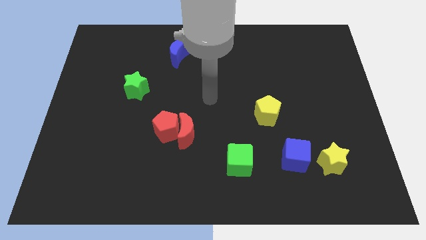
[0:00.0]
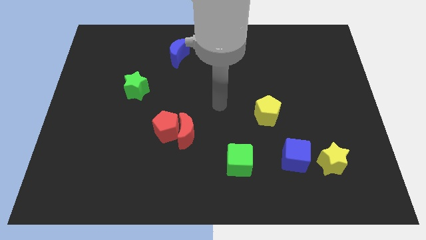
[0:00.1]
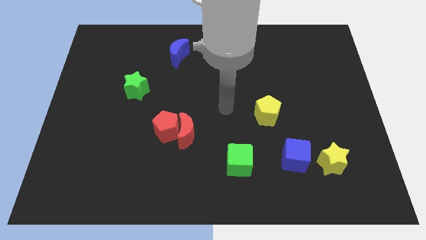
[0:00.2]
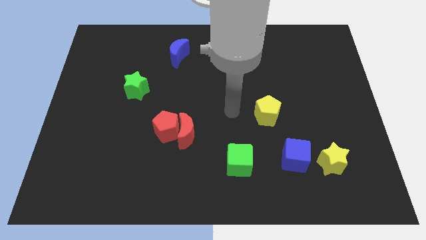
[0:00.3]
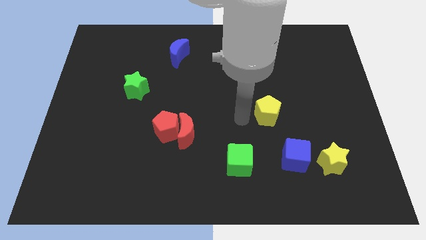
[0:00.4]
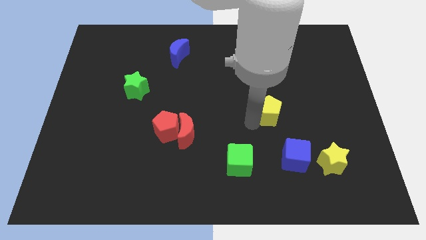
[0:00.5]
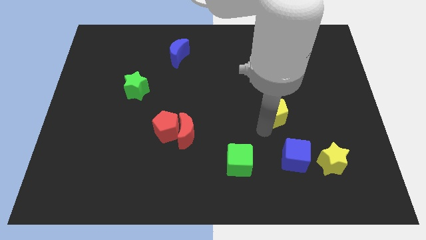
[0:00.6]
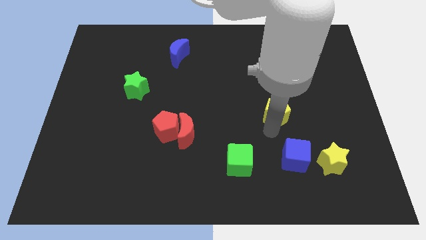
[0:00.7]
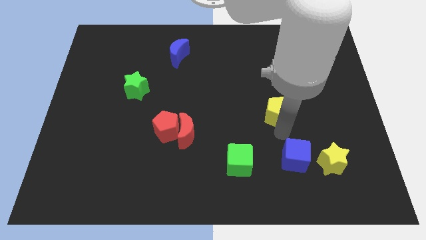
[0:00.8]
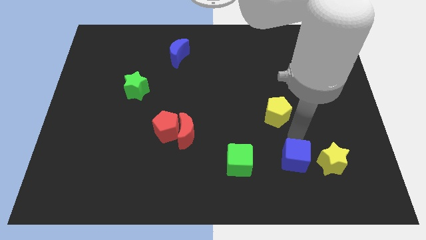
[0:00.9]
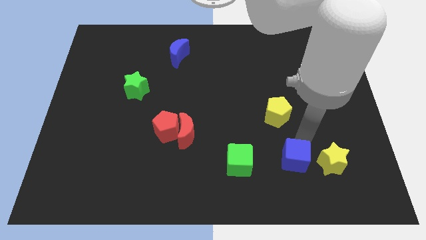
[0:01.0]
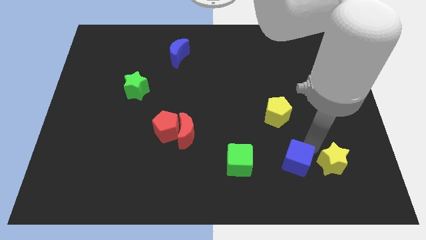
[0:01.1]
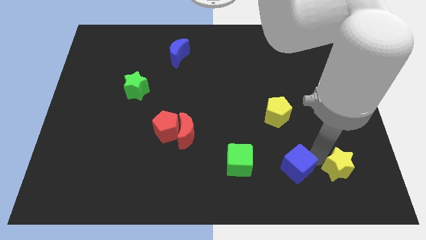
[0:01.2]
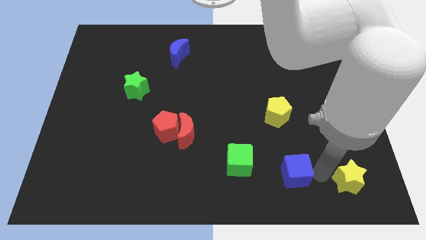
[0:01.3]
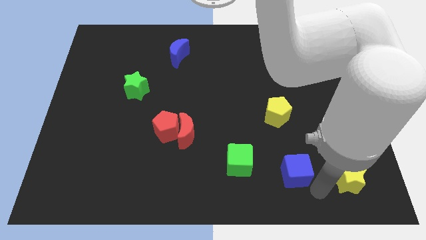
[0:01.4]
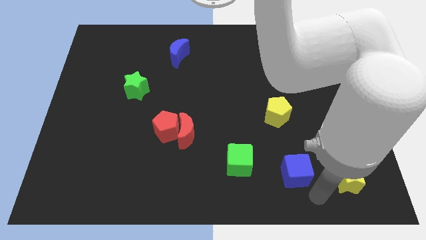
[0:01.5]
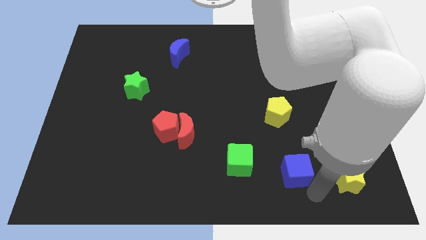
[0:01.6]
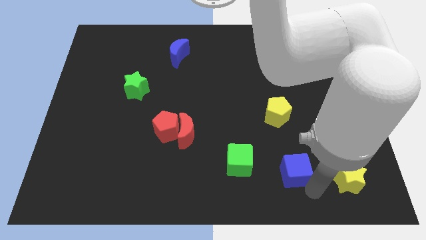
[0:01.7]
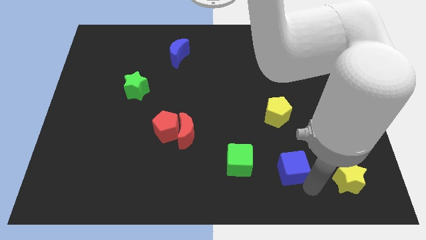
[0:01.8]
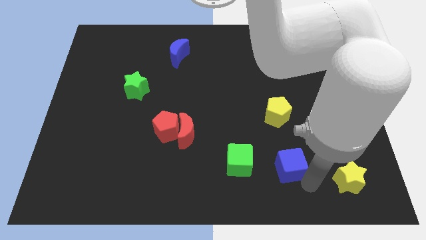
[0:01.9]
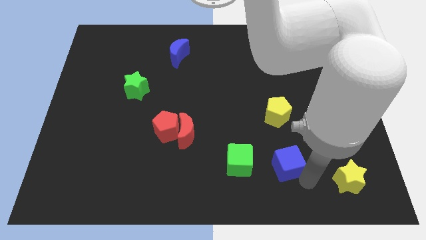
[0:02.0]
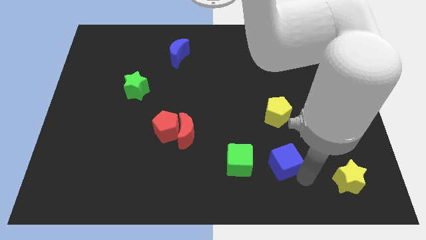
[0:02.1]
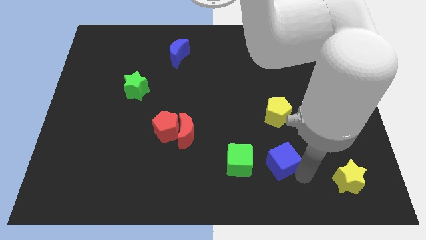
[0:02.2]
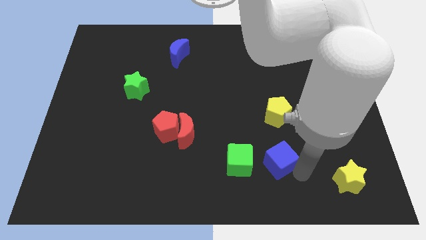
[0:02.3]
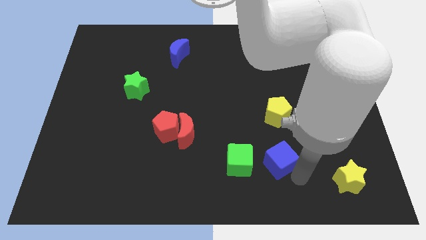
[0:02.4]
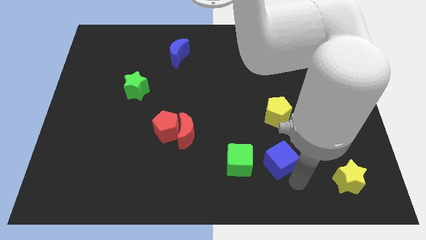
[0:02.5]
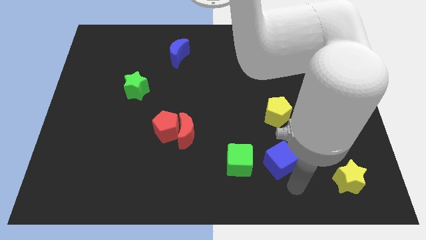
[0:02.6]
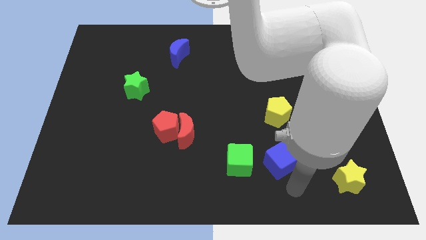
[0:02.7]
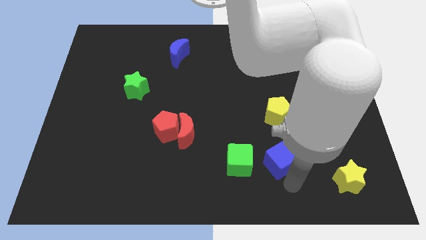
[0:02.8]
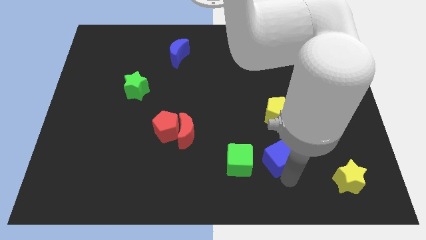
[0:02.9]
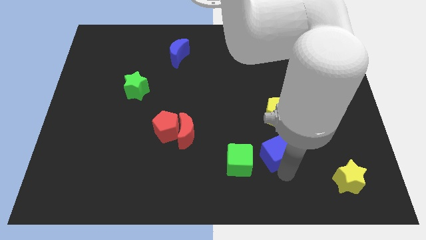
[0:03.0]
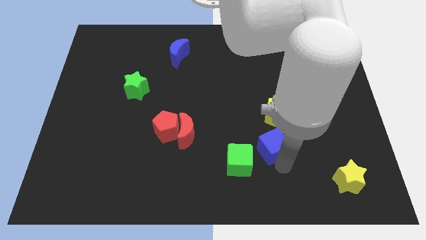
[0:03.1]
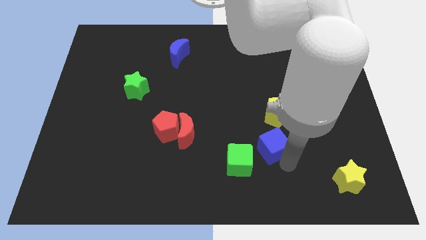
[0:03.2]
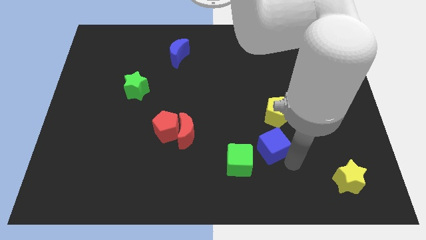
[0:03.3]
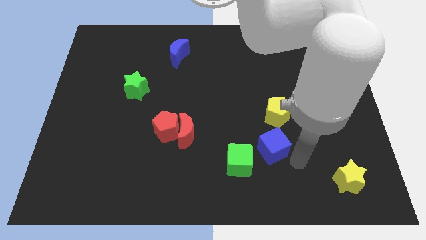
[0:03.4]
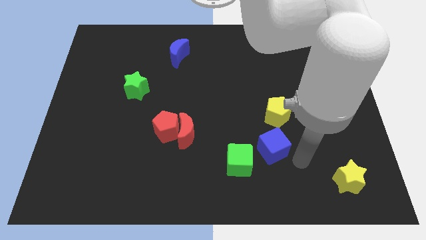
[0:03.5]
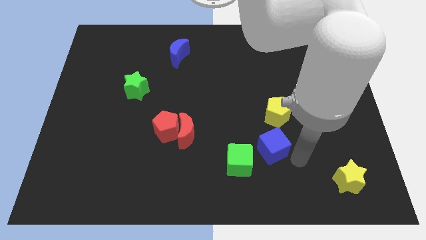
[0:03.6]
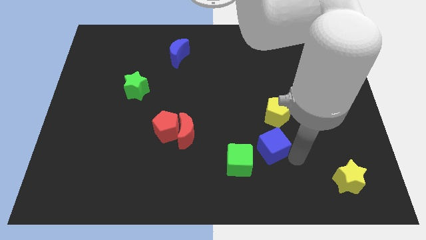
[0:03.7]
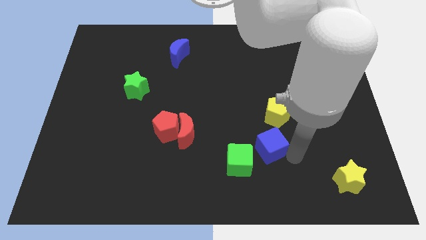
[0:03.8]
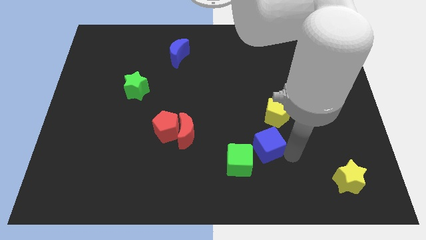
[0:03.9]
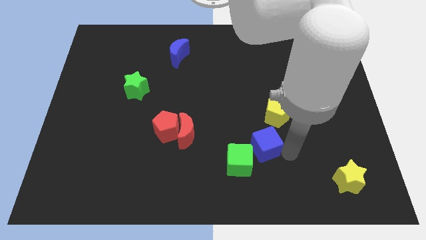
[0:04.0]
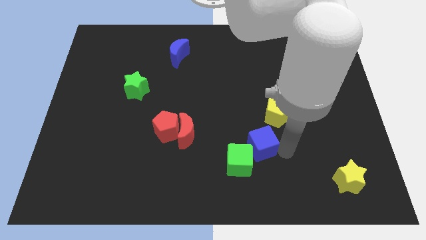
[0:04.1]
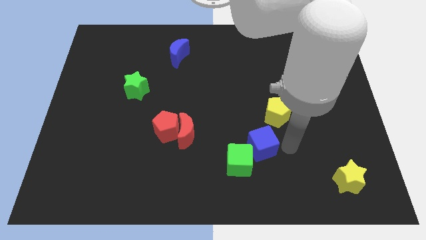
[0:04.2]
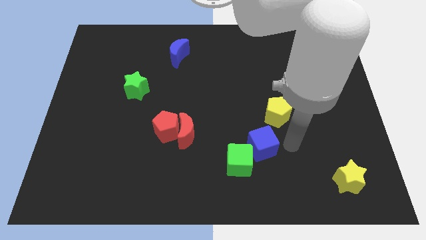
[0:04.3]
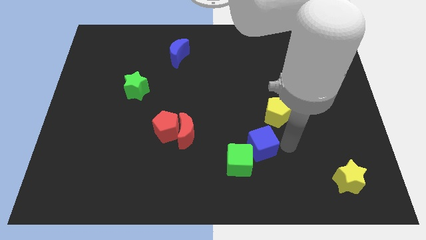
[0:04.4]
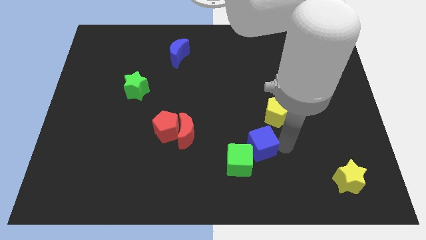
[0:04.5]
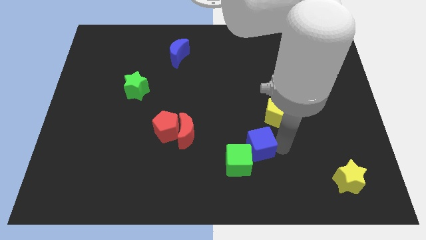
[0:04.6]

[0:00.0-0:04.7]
move the blue cube a little bit to the left

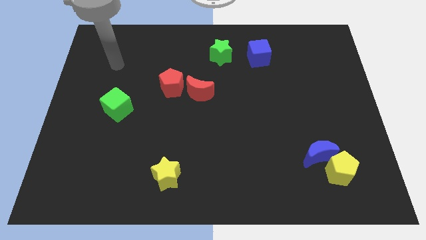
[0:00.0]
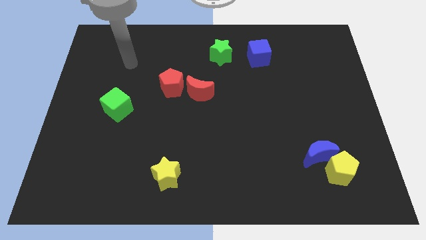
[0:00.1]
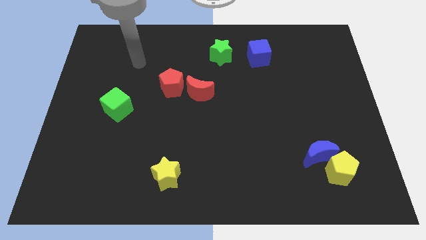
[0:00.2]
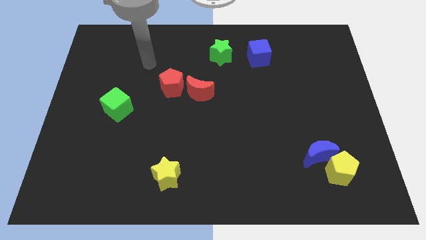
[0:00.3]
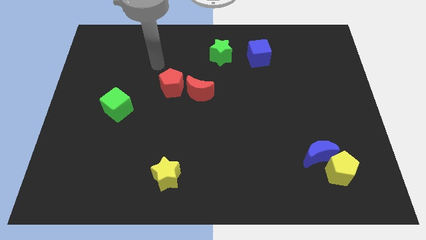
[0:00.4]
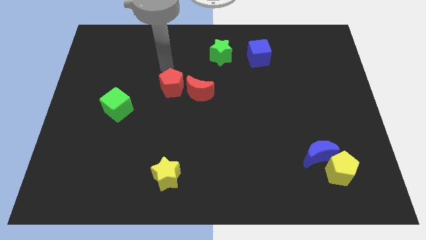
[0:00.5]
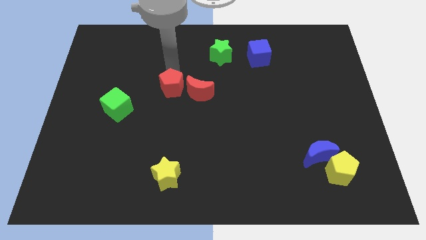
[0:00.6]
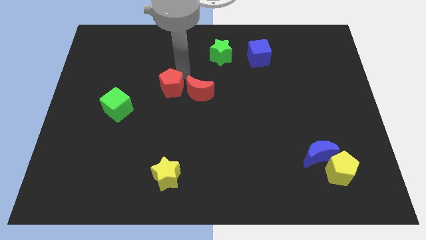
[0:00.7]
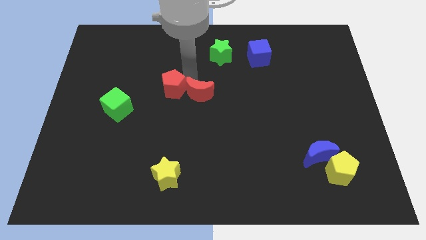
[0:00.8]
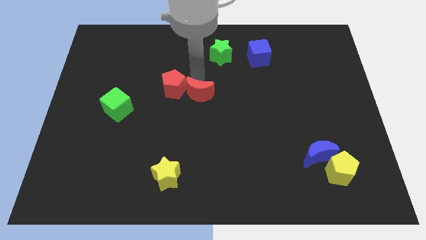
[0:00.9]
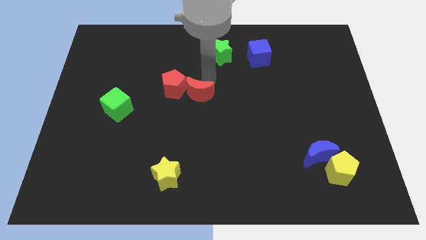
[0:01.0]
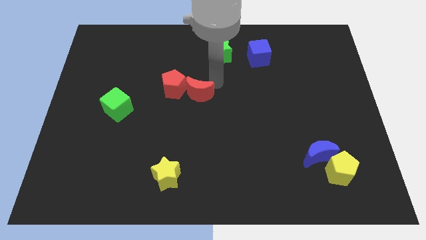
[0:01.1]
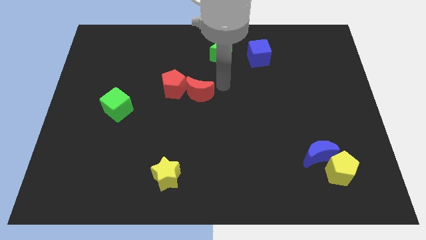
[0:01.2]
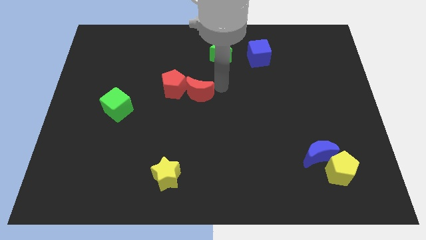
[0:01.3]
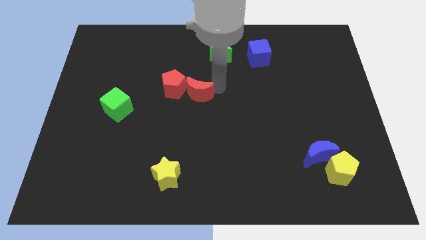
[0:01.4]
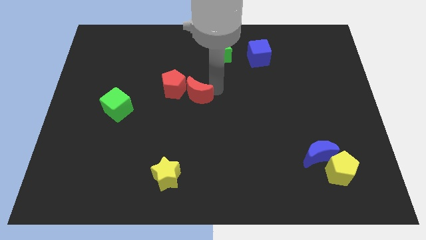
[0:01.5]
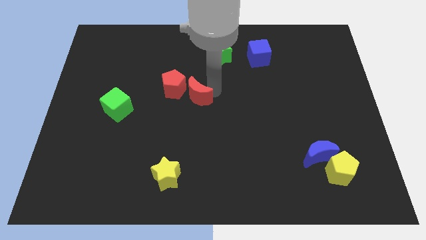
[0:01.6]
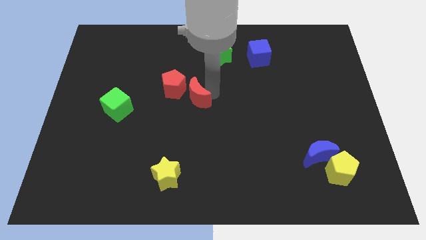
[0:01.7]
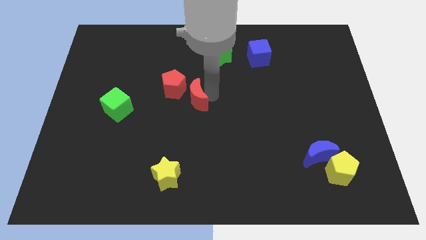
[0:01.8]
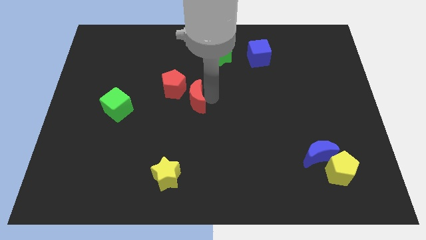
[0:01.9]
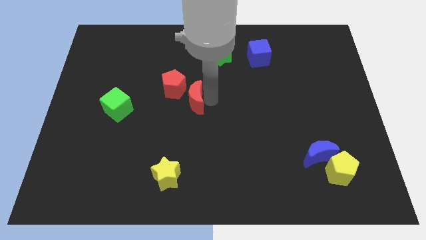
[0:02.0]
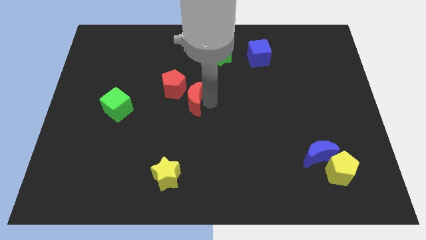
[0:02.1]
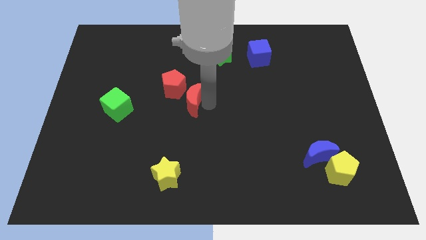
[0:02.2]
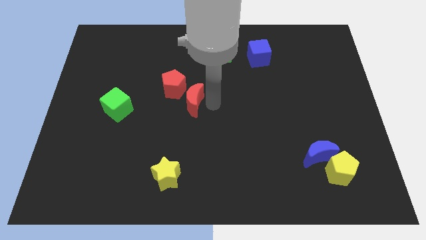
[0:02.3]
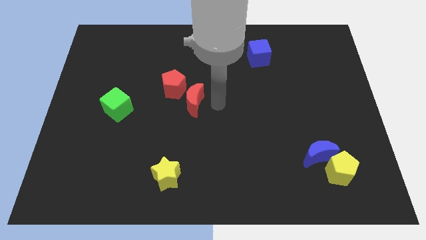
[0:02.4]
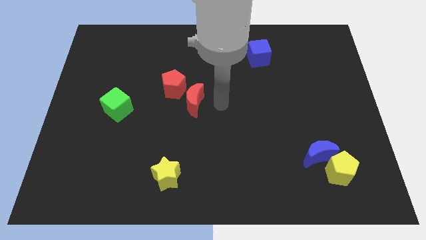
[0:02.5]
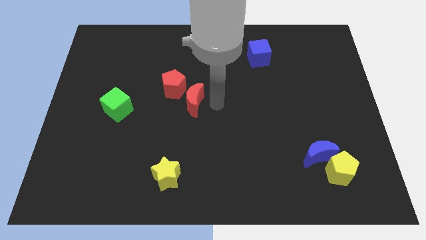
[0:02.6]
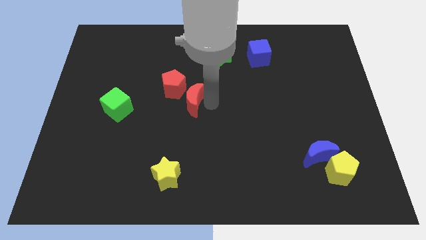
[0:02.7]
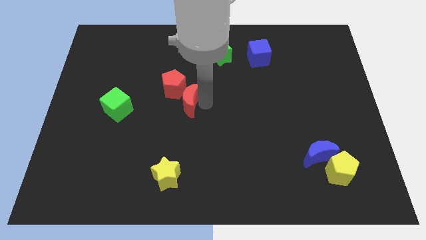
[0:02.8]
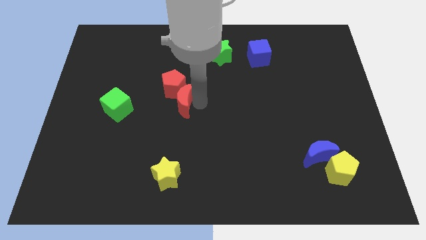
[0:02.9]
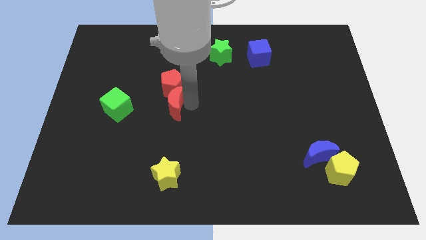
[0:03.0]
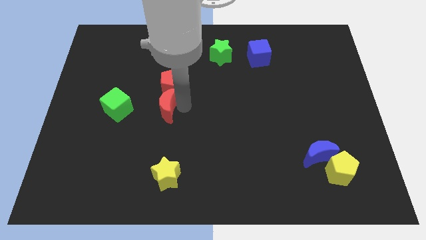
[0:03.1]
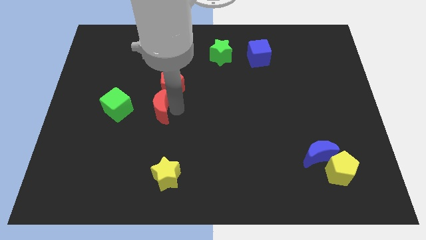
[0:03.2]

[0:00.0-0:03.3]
move the red moon left somewhat
